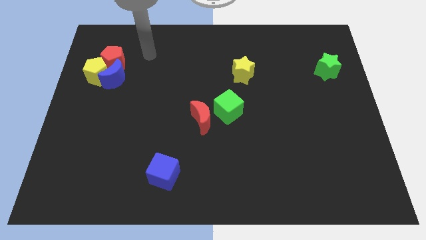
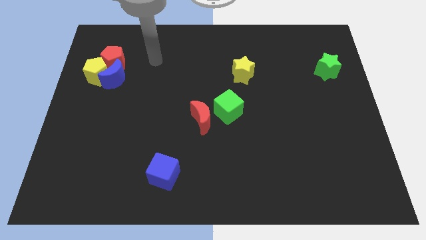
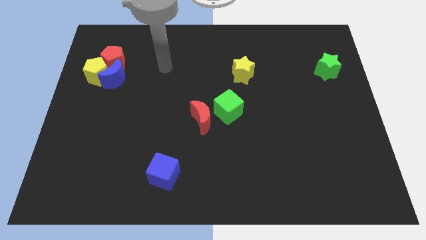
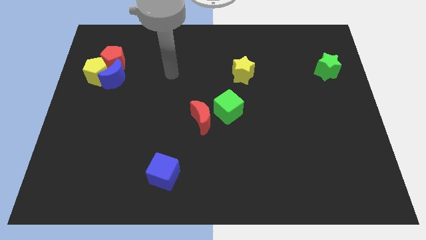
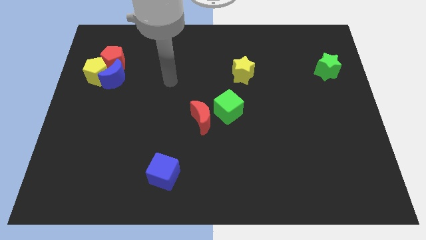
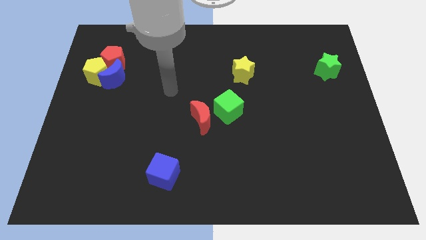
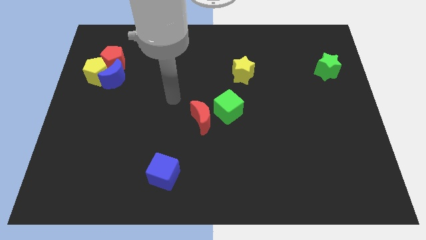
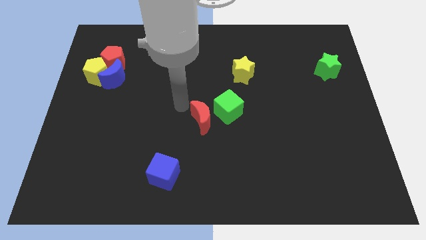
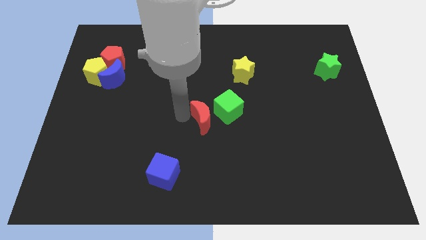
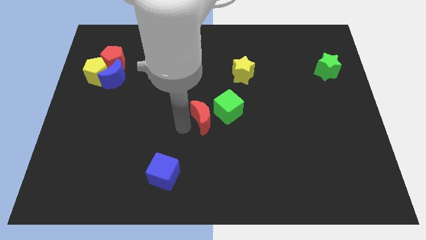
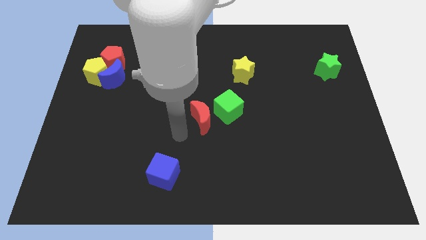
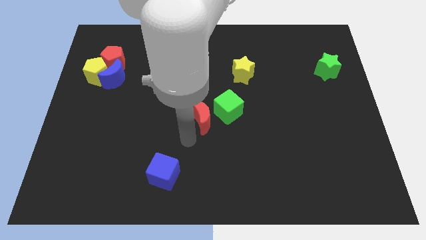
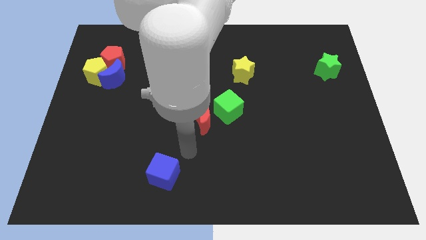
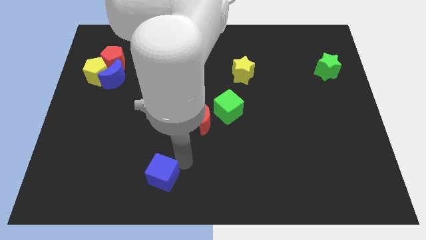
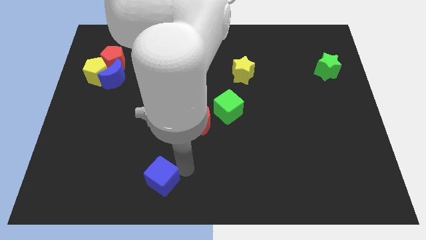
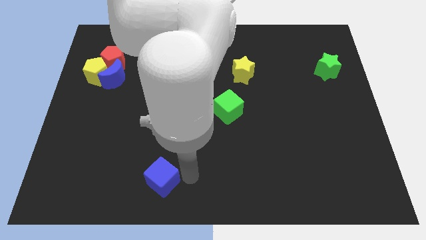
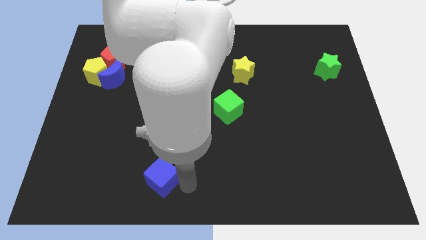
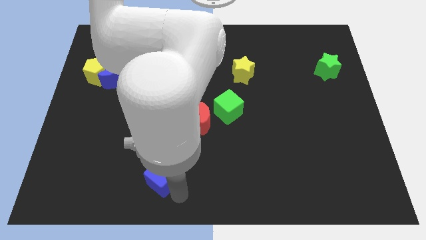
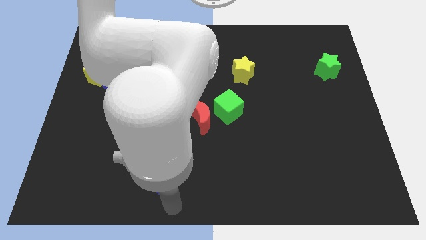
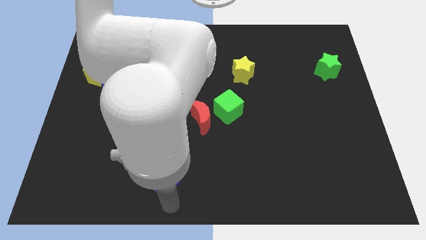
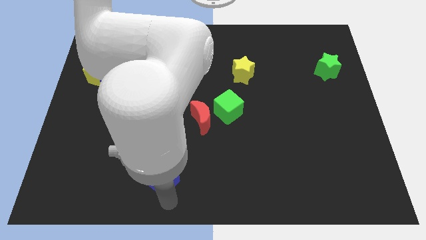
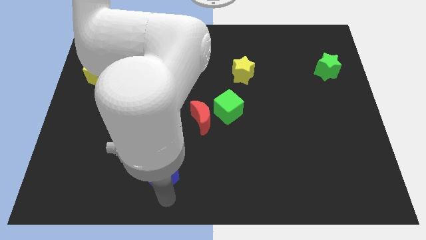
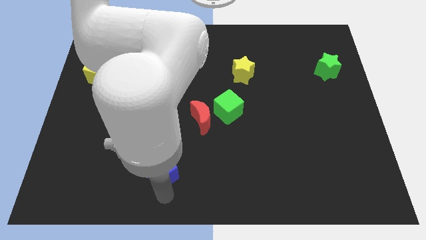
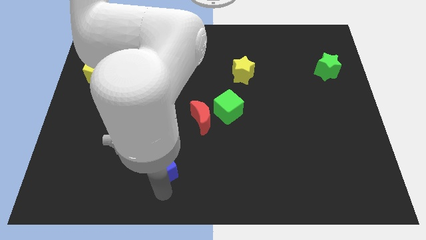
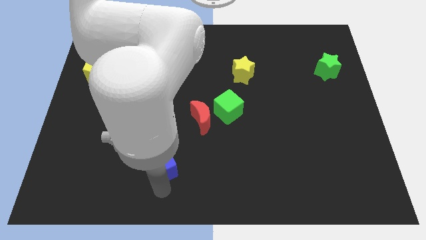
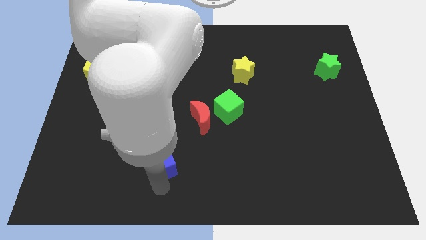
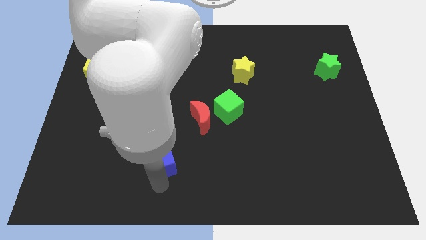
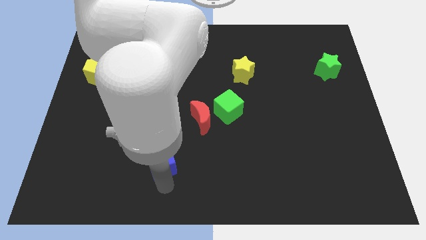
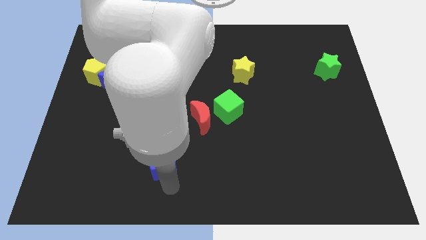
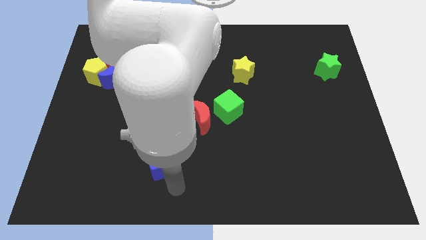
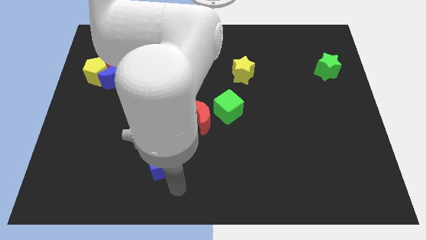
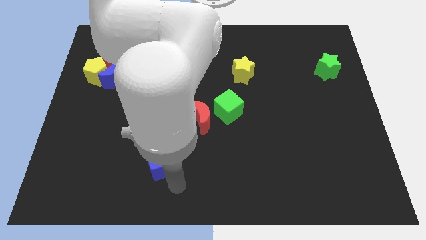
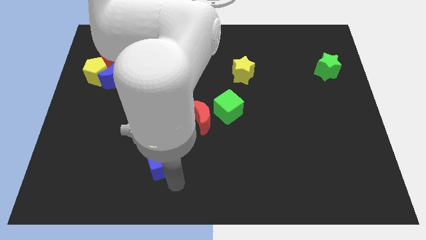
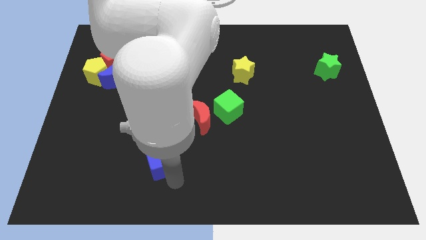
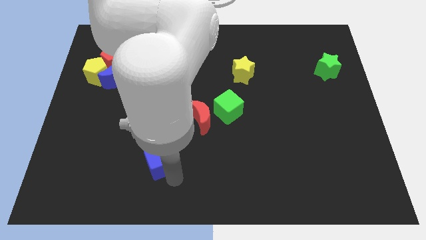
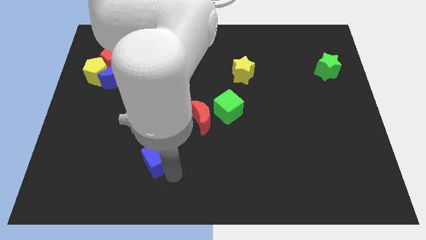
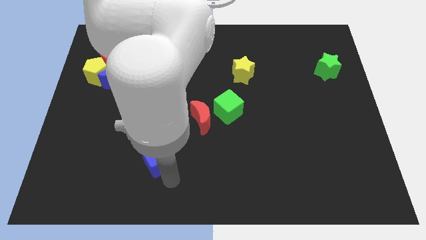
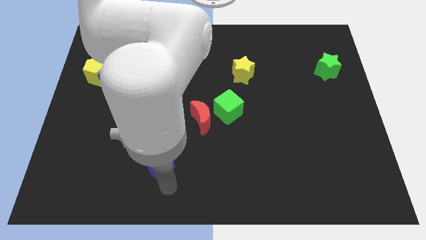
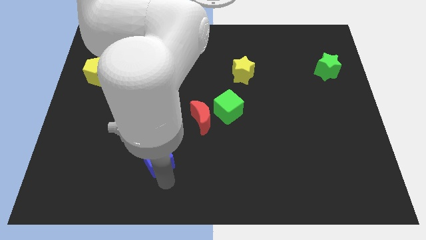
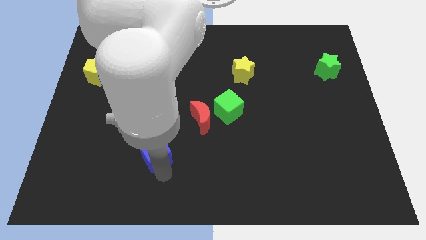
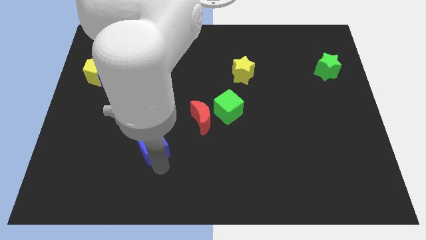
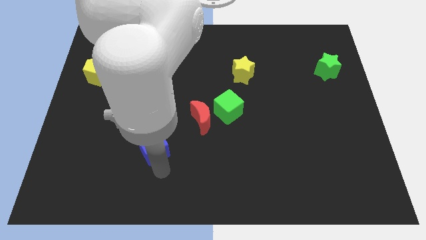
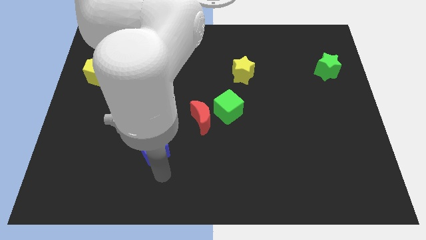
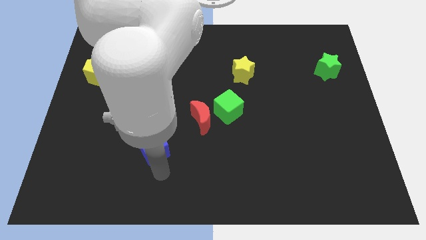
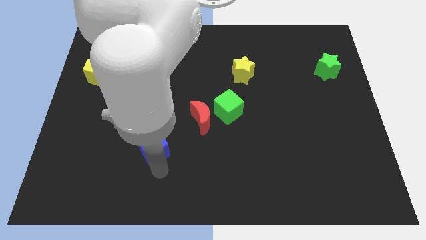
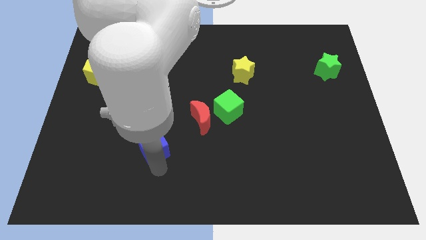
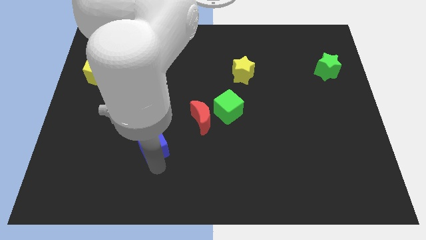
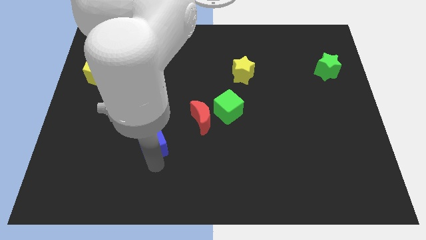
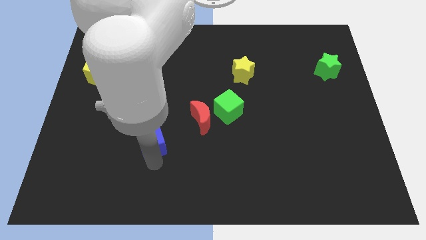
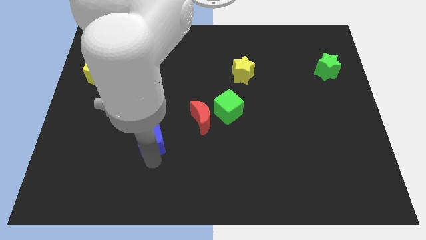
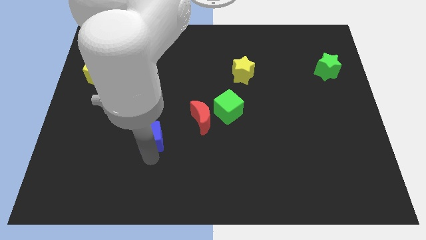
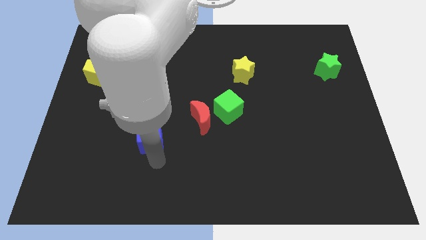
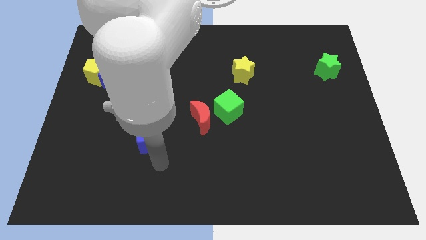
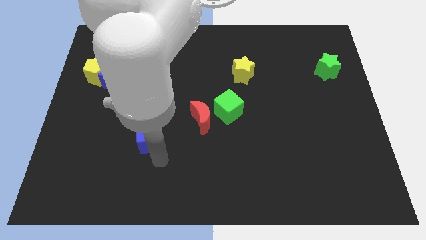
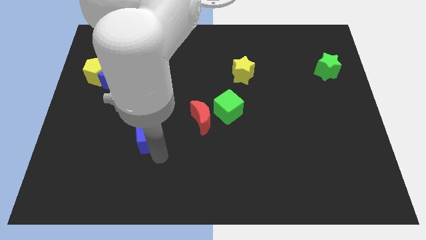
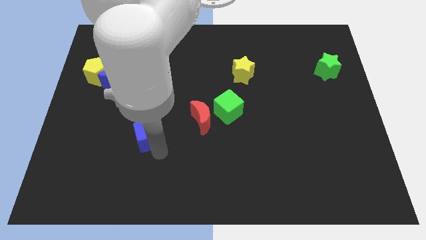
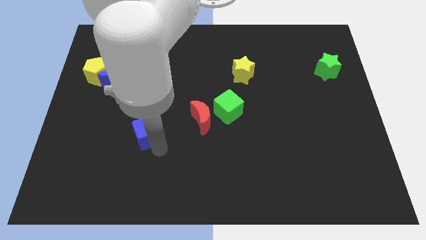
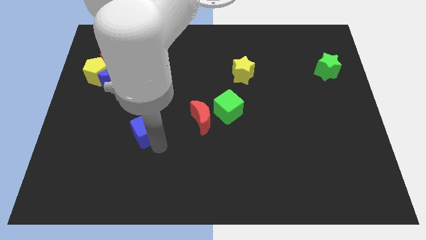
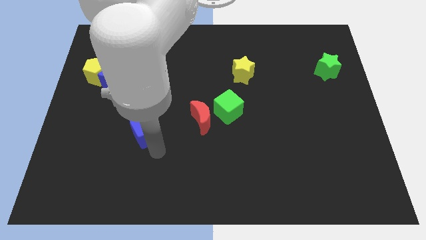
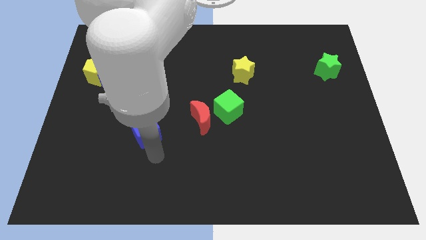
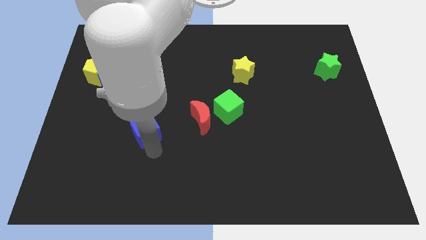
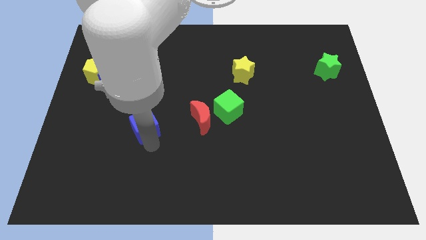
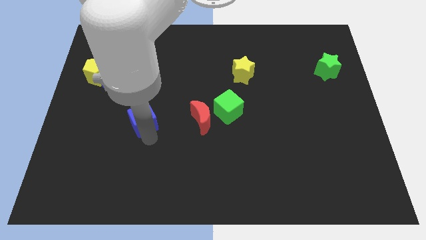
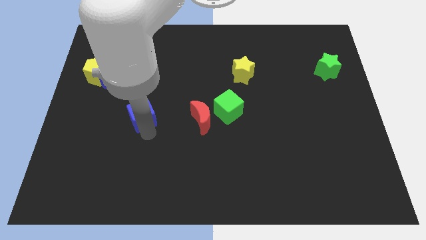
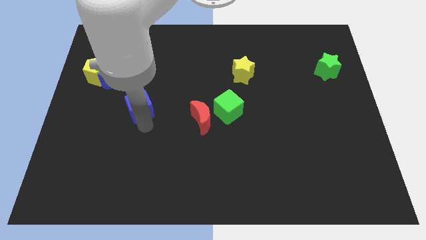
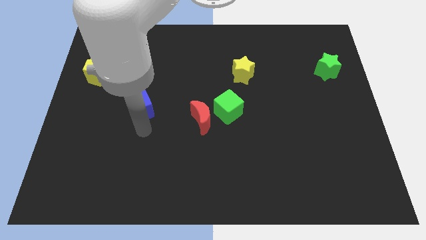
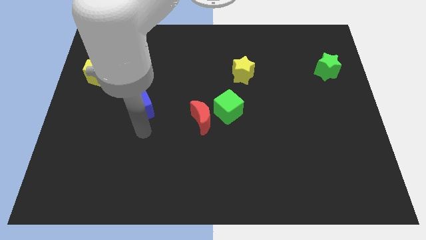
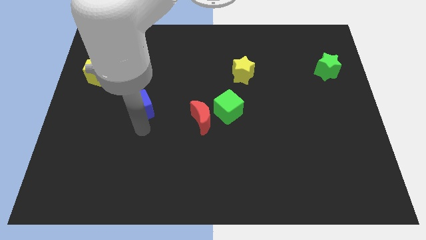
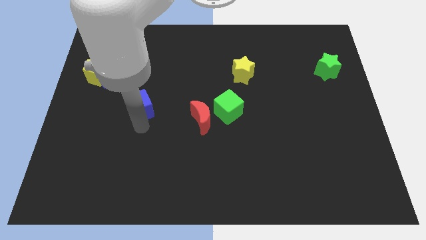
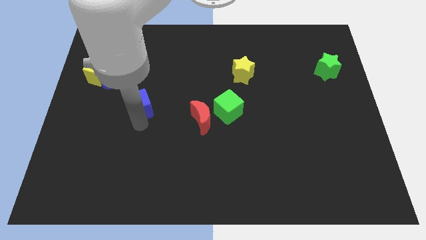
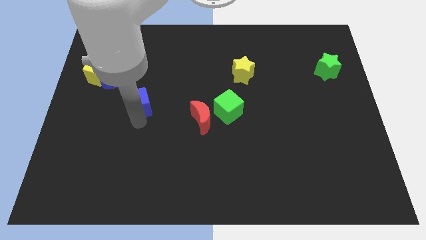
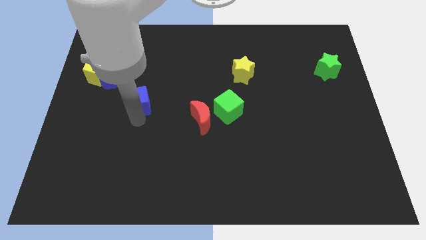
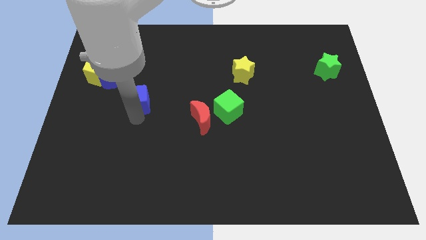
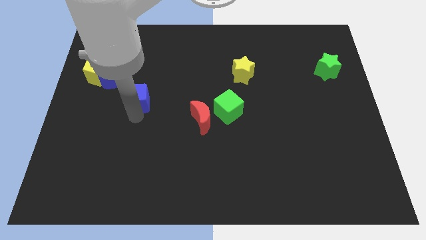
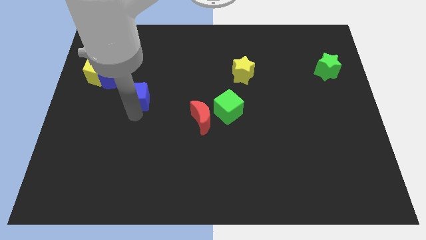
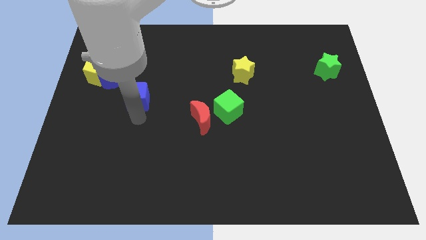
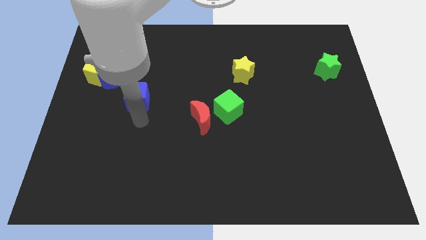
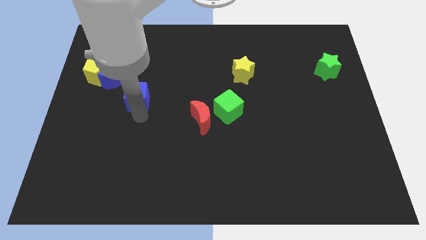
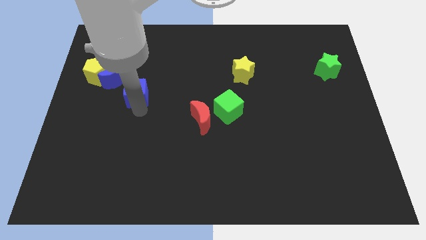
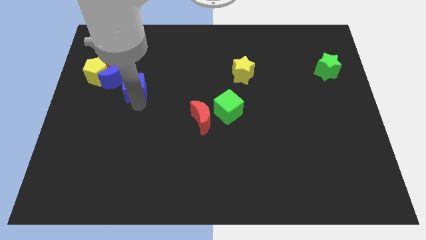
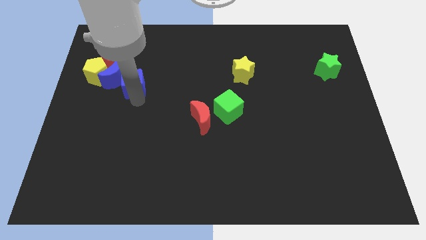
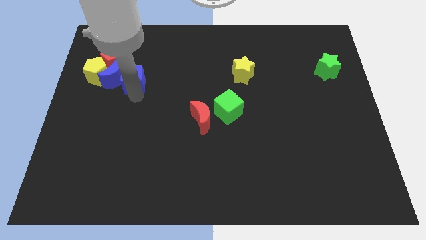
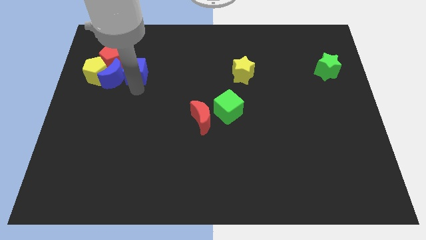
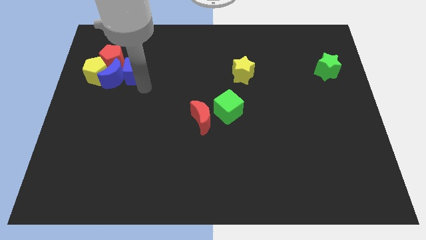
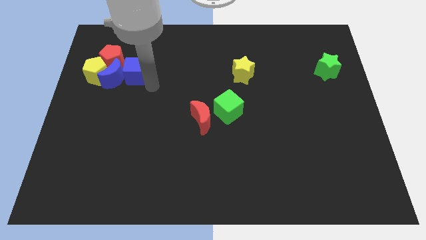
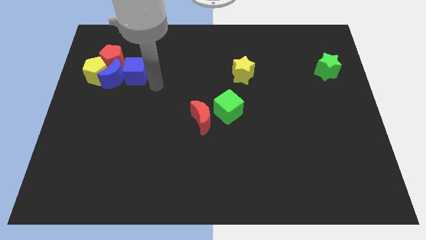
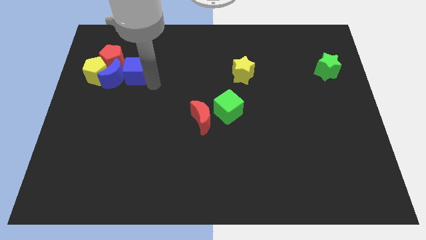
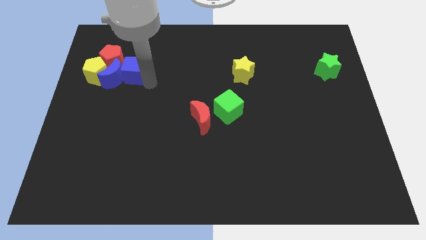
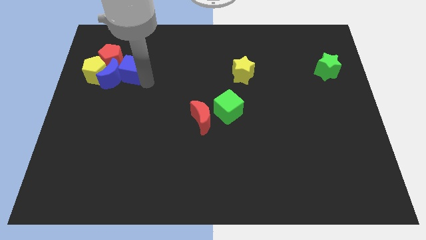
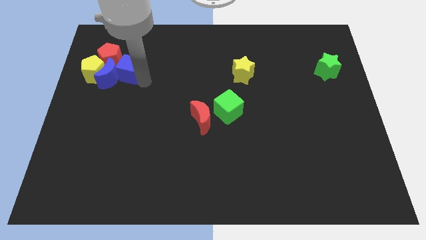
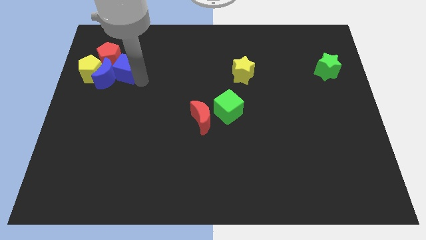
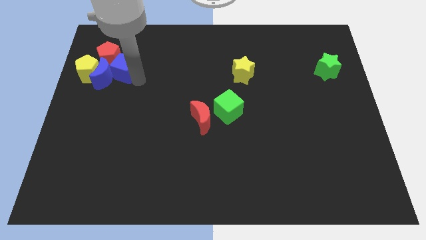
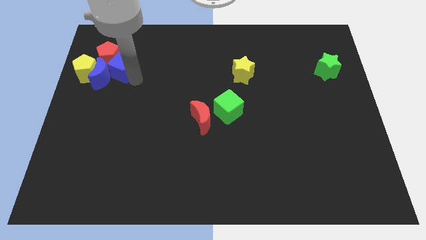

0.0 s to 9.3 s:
move the blue cube towards the red pentagon
